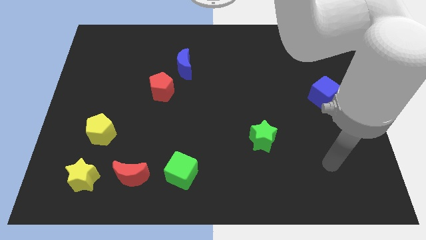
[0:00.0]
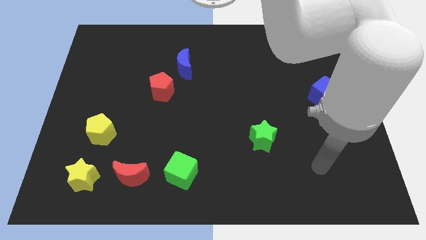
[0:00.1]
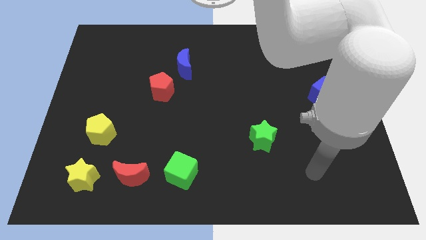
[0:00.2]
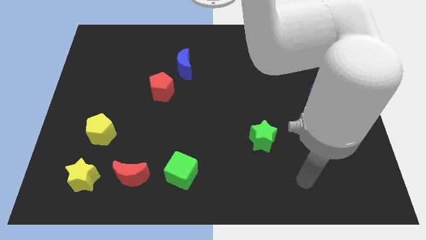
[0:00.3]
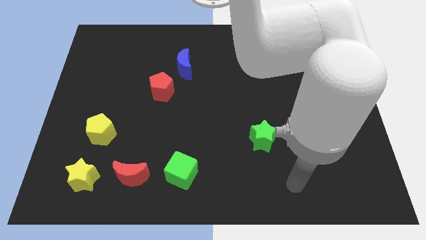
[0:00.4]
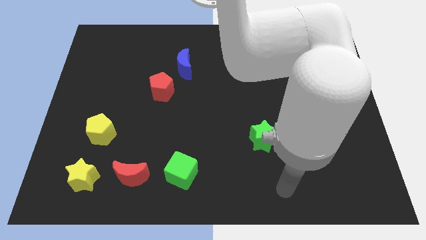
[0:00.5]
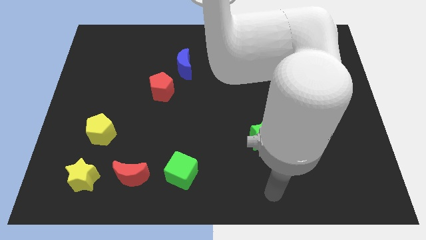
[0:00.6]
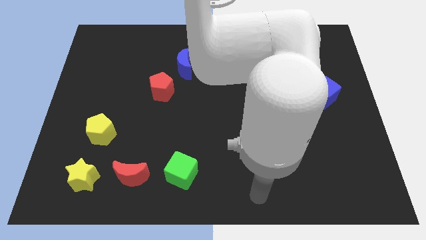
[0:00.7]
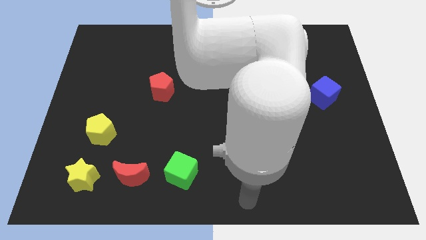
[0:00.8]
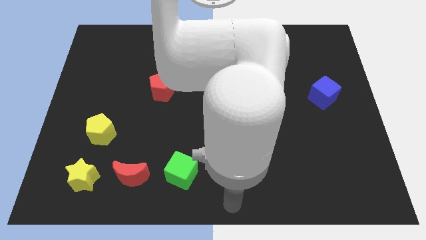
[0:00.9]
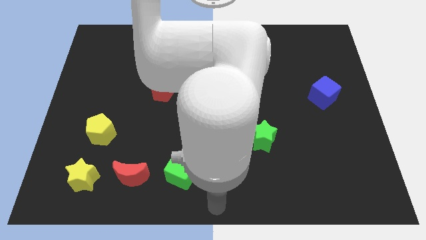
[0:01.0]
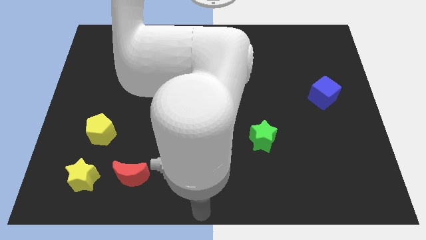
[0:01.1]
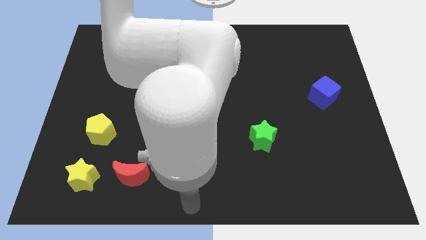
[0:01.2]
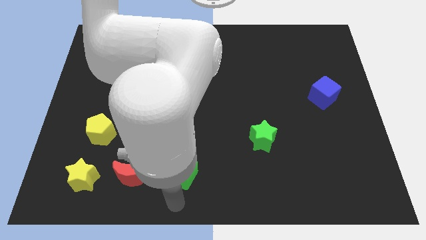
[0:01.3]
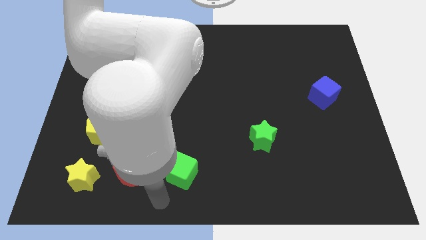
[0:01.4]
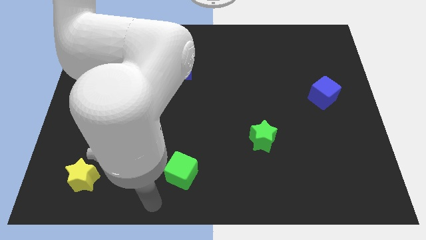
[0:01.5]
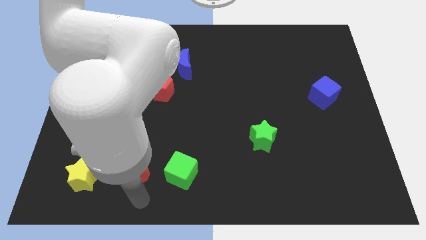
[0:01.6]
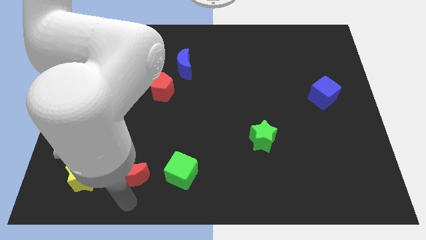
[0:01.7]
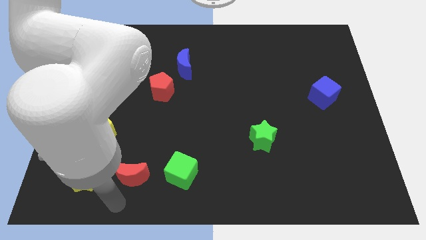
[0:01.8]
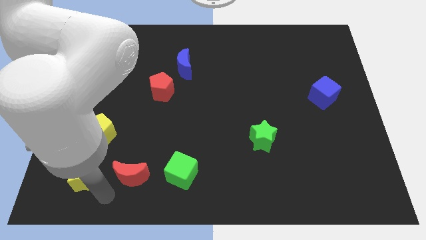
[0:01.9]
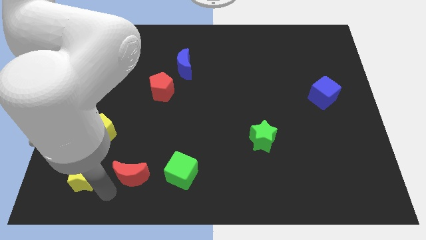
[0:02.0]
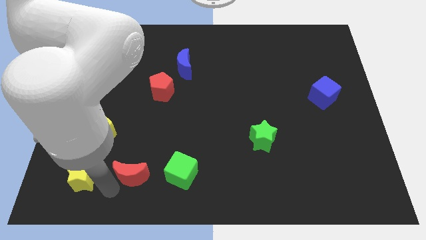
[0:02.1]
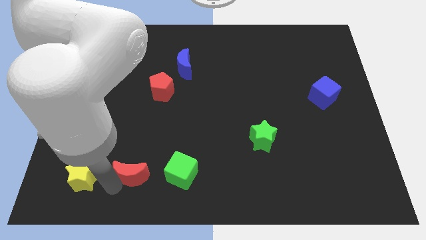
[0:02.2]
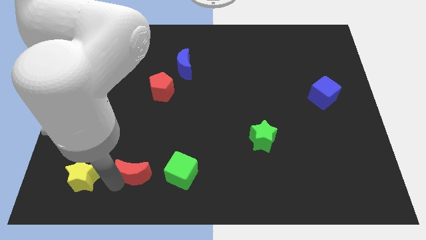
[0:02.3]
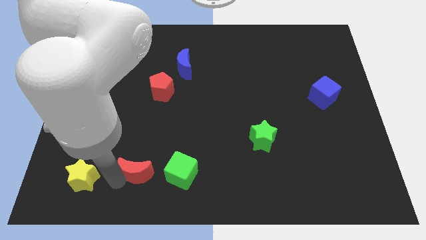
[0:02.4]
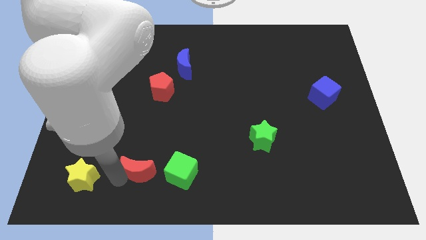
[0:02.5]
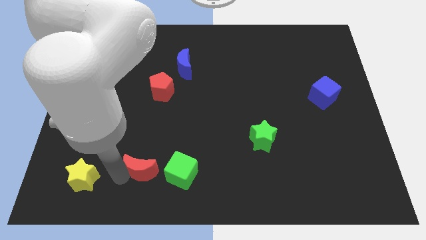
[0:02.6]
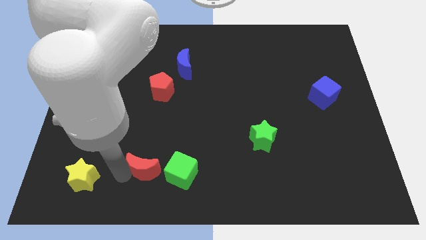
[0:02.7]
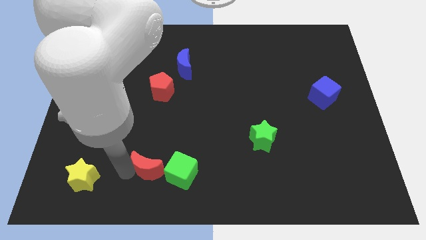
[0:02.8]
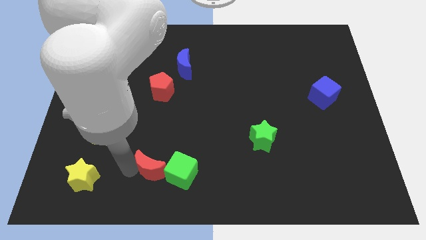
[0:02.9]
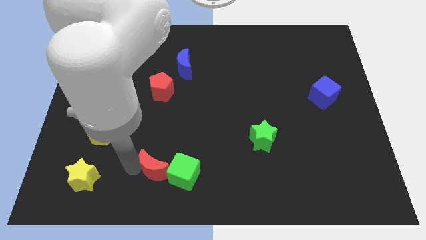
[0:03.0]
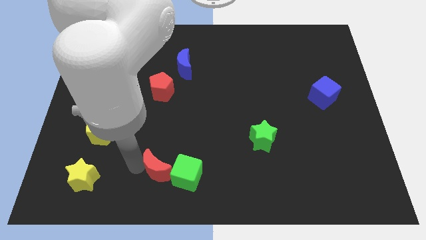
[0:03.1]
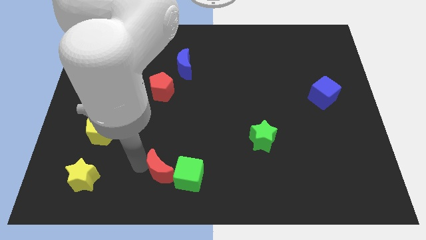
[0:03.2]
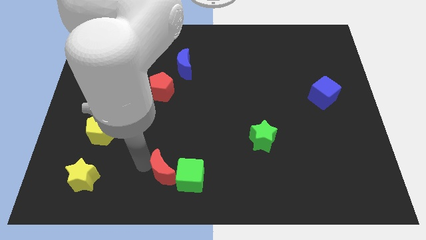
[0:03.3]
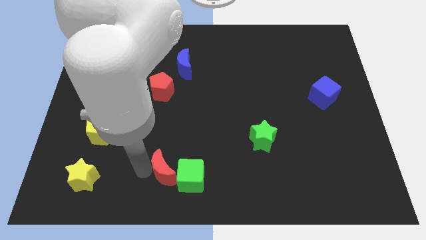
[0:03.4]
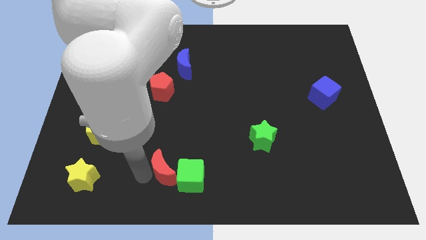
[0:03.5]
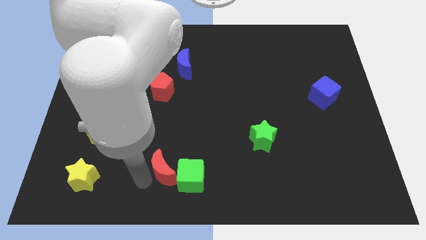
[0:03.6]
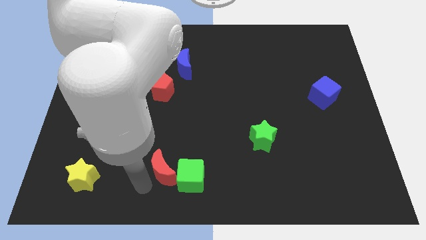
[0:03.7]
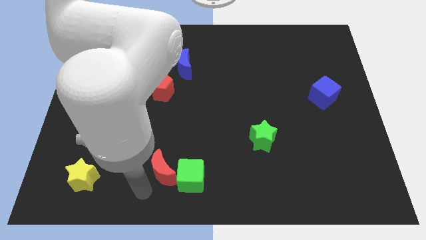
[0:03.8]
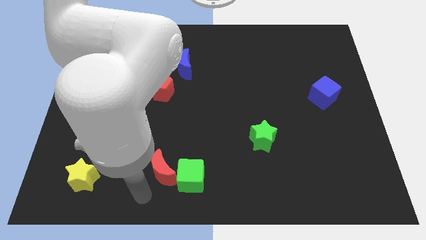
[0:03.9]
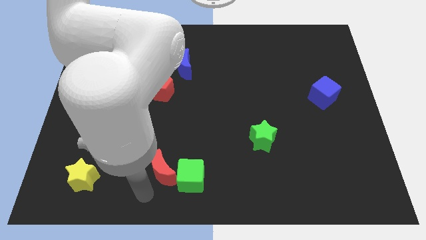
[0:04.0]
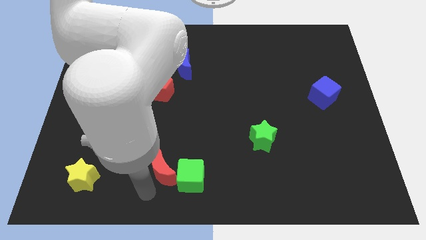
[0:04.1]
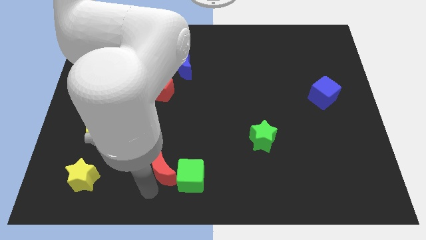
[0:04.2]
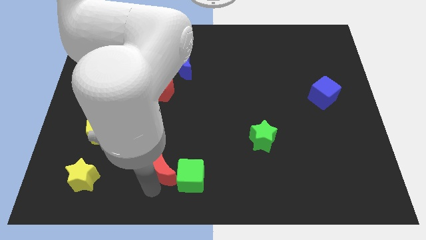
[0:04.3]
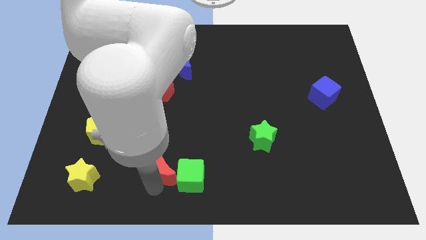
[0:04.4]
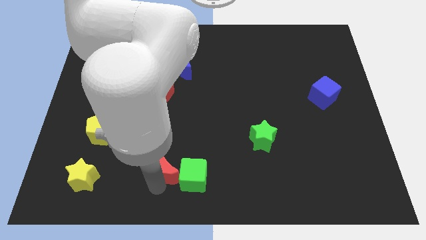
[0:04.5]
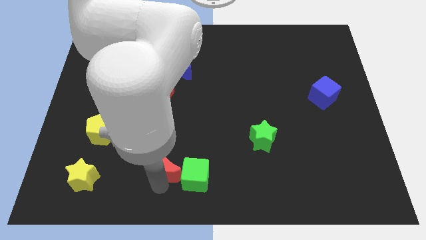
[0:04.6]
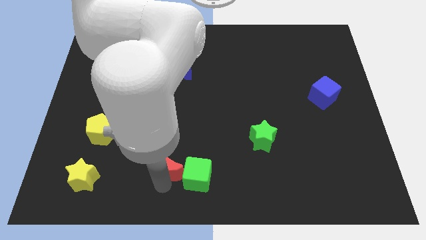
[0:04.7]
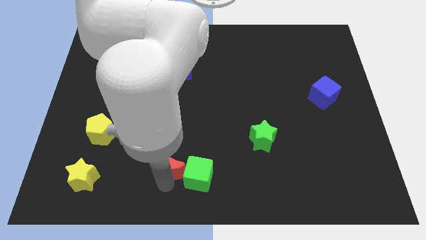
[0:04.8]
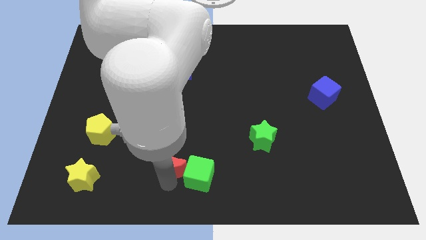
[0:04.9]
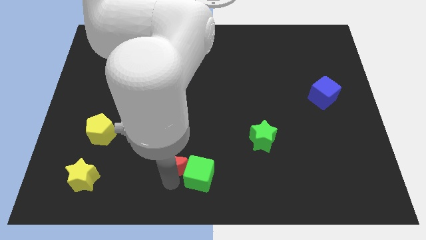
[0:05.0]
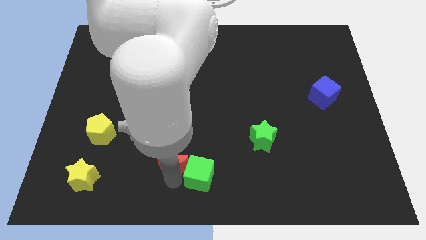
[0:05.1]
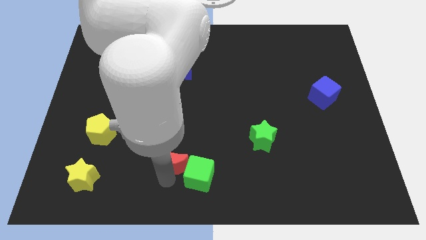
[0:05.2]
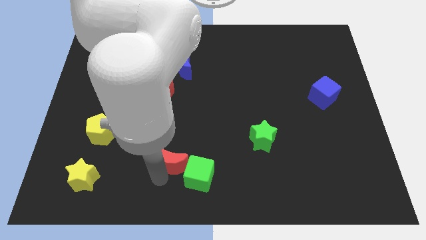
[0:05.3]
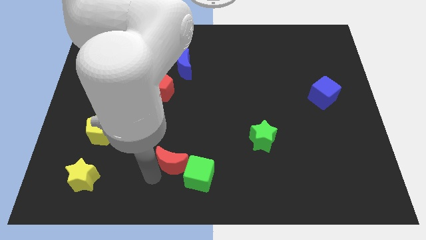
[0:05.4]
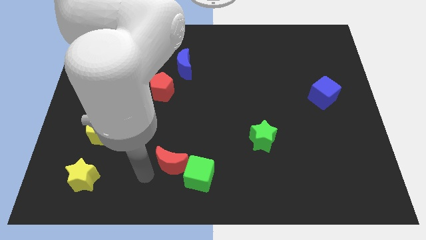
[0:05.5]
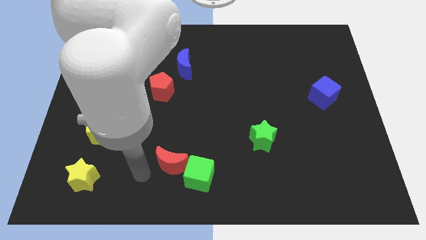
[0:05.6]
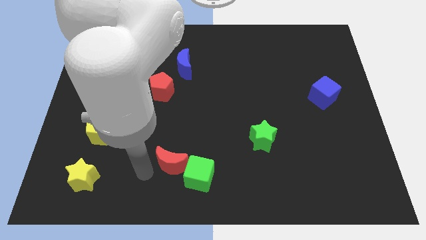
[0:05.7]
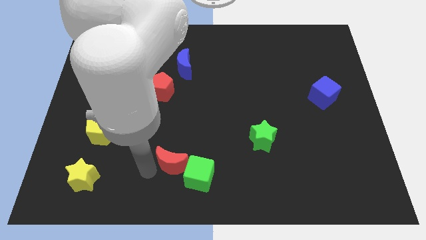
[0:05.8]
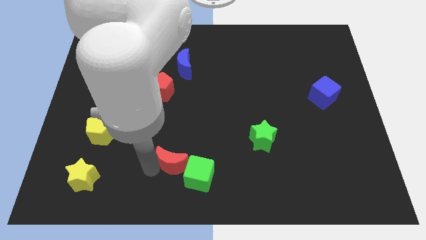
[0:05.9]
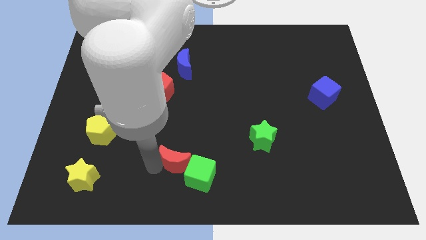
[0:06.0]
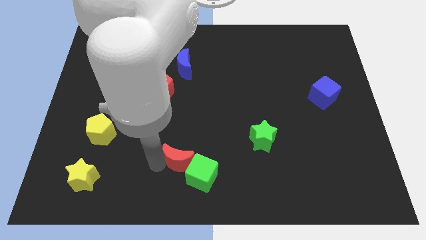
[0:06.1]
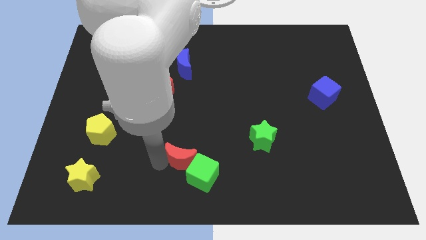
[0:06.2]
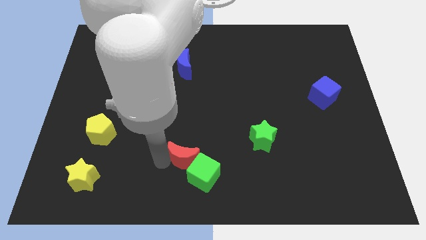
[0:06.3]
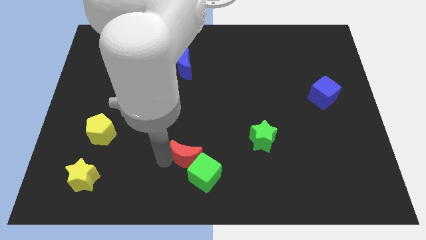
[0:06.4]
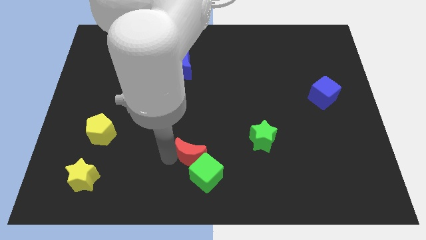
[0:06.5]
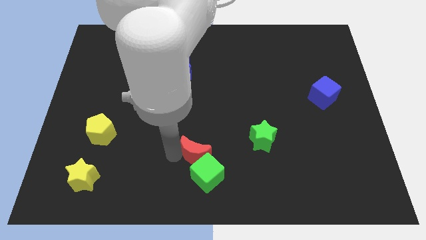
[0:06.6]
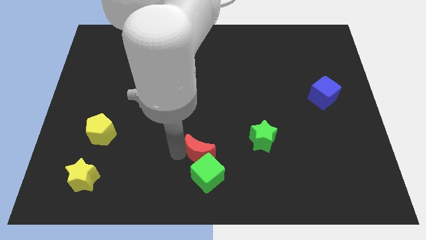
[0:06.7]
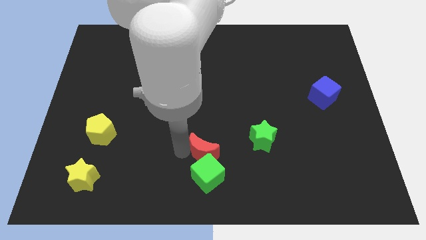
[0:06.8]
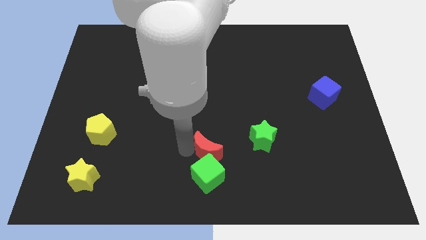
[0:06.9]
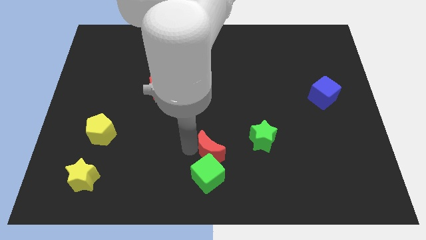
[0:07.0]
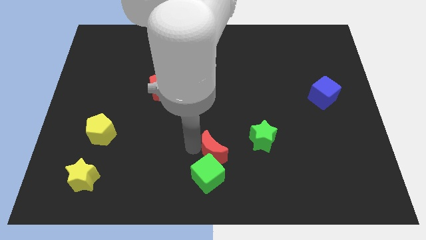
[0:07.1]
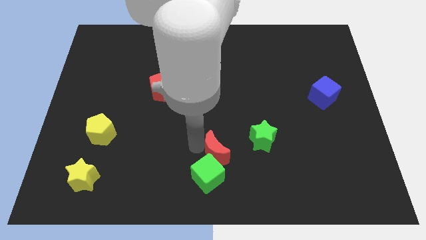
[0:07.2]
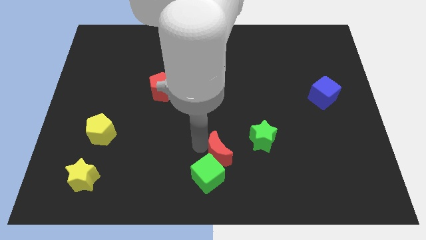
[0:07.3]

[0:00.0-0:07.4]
put the red moon to the bottom left side of the green star
